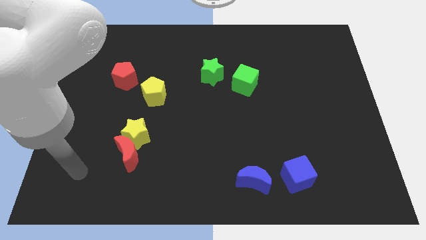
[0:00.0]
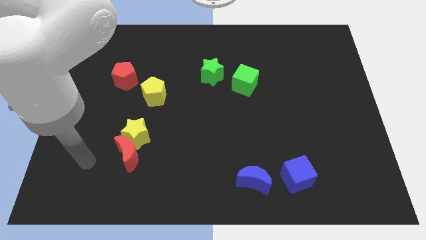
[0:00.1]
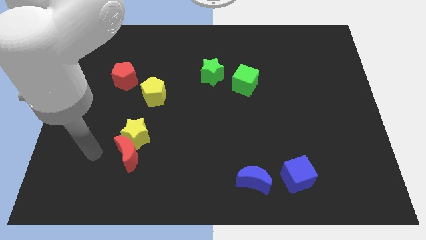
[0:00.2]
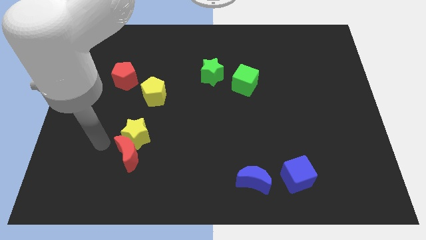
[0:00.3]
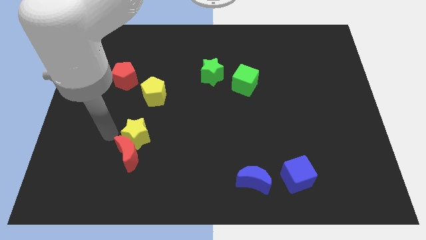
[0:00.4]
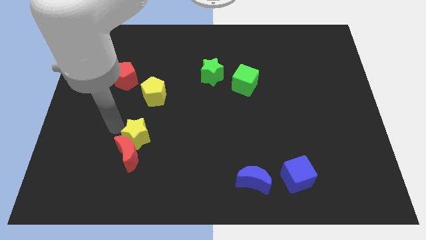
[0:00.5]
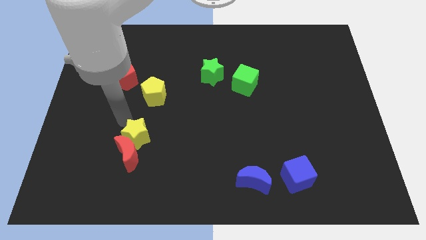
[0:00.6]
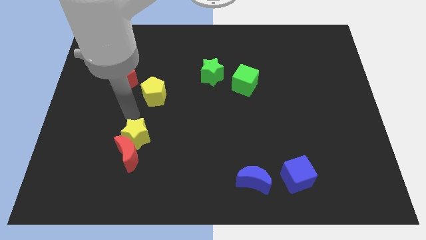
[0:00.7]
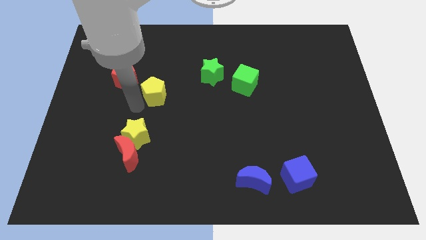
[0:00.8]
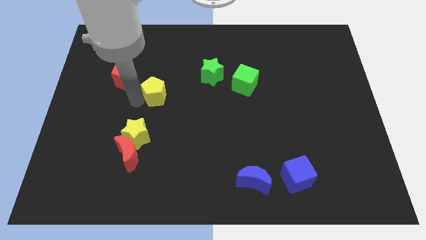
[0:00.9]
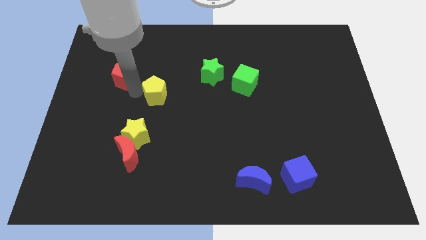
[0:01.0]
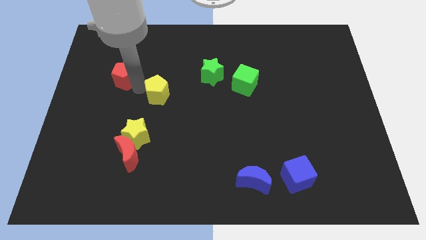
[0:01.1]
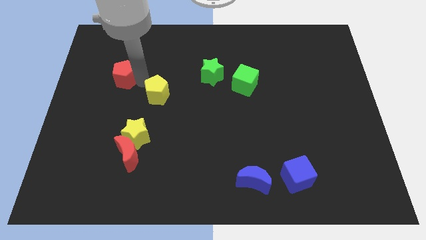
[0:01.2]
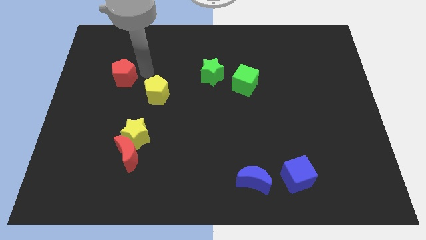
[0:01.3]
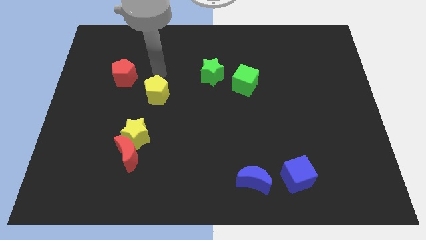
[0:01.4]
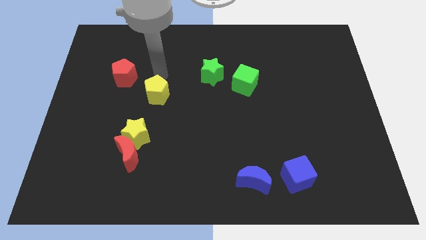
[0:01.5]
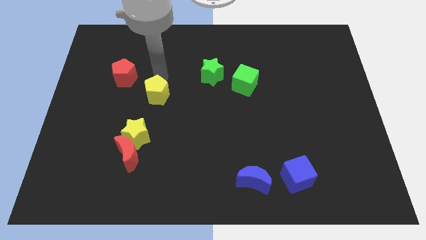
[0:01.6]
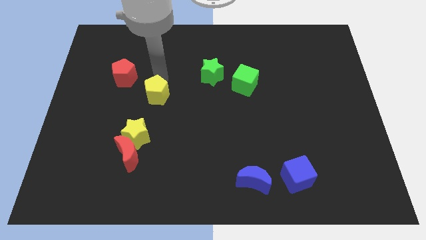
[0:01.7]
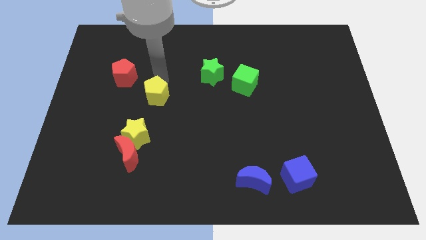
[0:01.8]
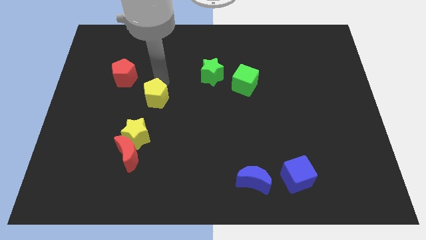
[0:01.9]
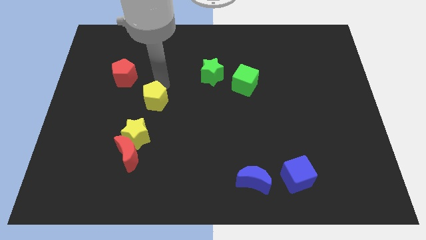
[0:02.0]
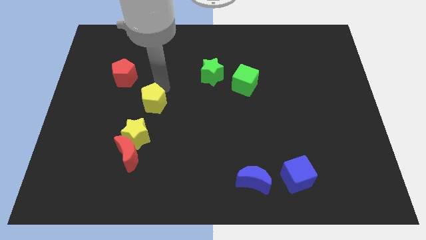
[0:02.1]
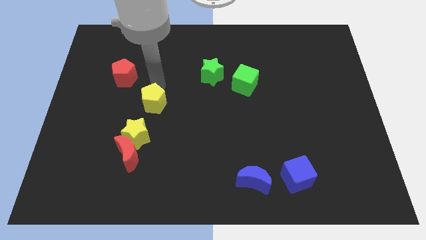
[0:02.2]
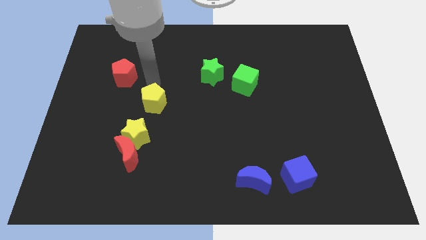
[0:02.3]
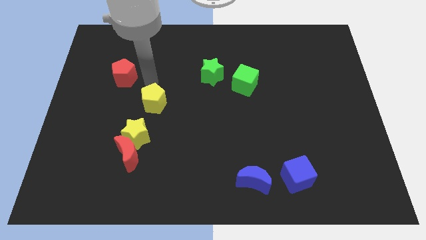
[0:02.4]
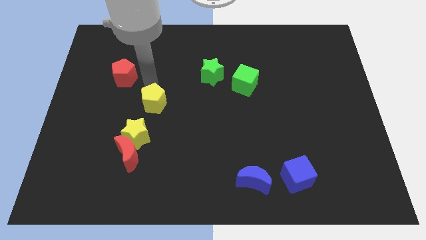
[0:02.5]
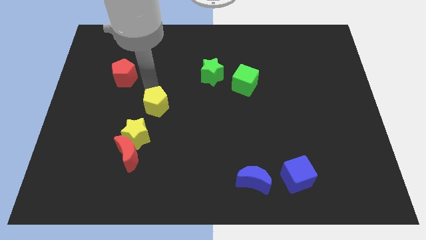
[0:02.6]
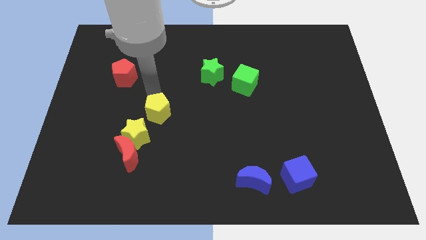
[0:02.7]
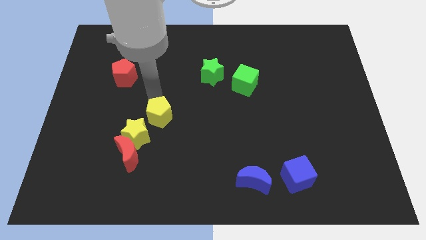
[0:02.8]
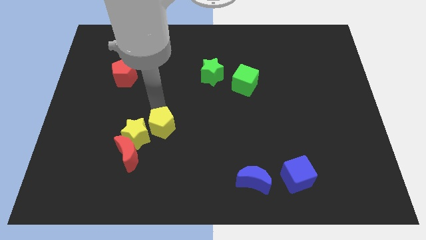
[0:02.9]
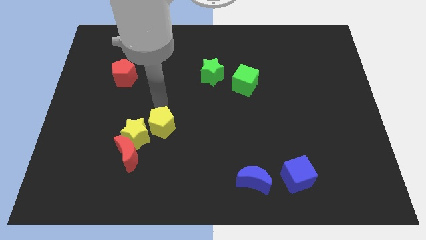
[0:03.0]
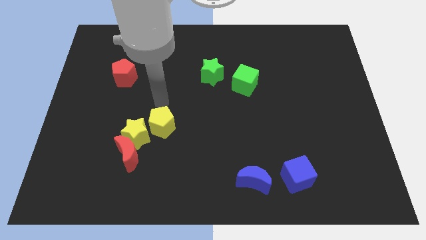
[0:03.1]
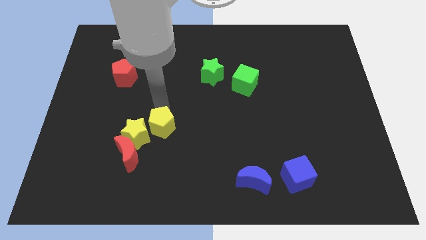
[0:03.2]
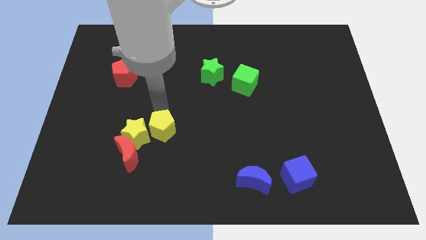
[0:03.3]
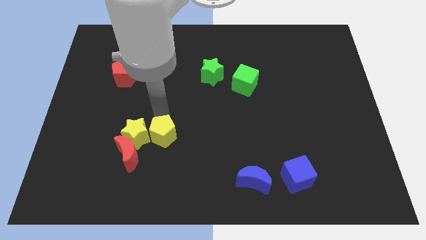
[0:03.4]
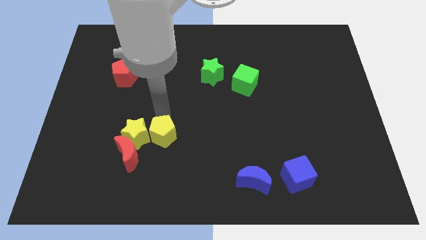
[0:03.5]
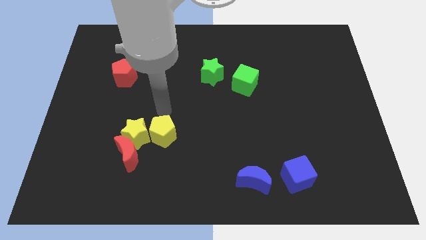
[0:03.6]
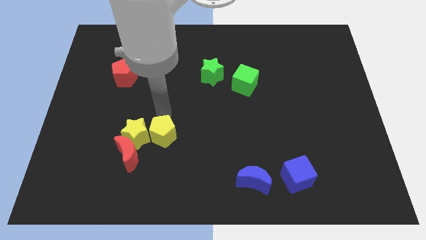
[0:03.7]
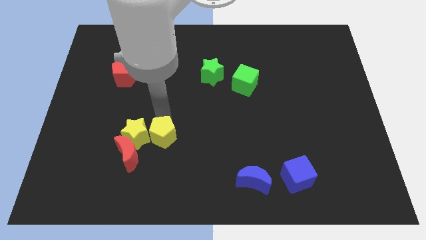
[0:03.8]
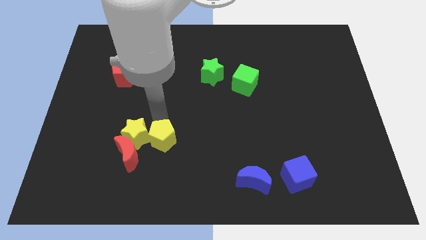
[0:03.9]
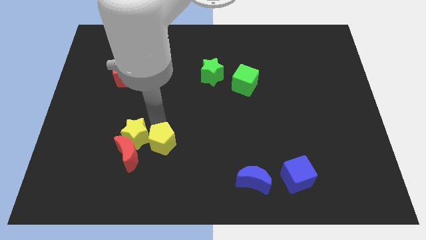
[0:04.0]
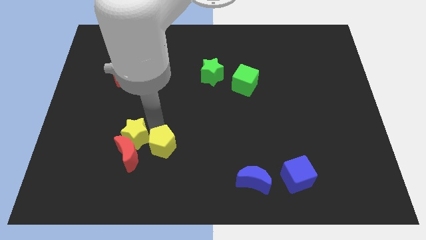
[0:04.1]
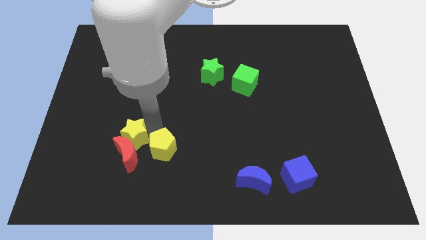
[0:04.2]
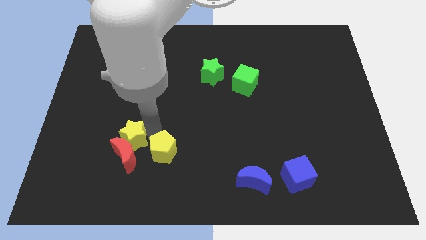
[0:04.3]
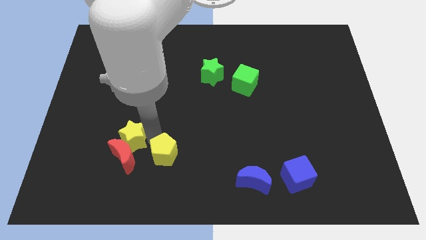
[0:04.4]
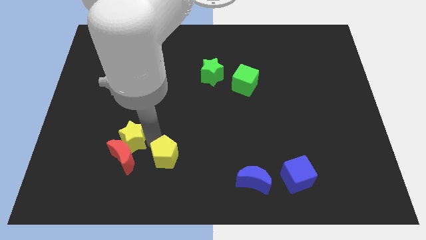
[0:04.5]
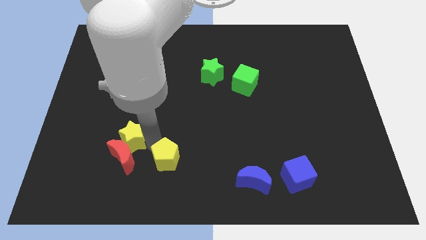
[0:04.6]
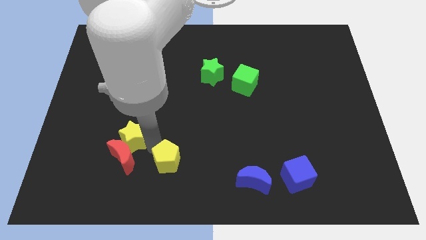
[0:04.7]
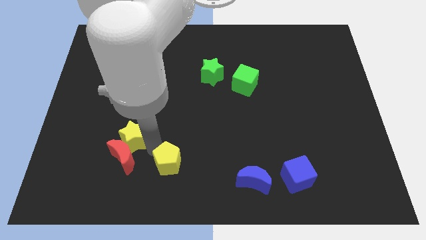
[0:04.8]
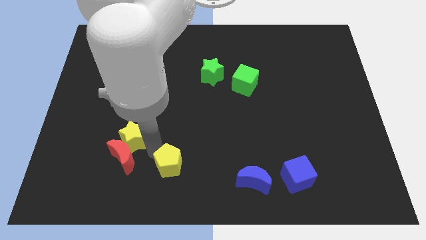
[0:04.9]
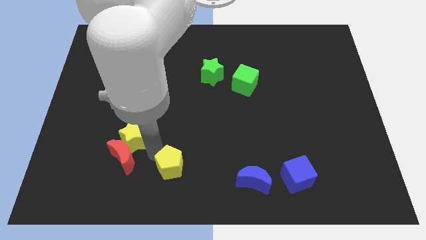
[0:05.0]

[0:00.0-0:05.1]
move the yellow pentagon to the bottom

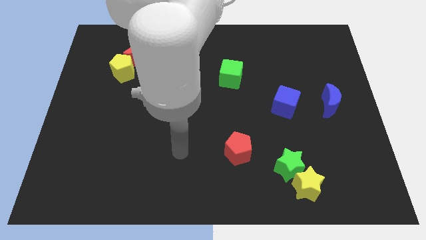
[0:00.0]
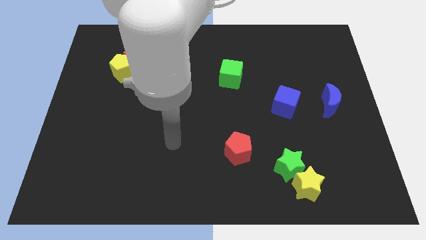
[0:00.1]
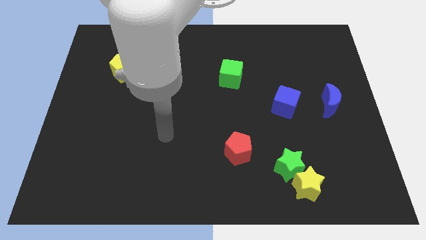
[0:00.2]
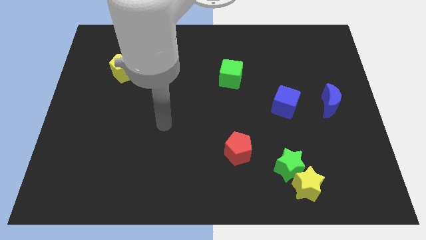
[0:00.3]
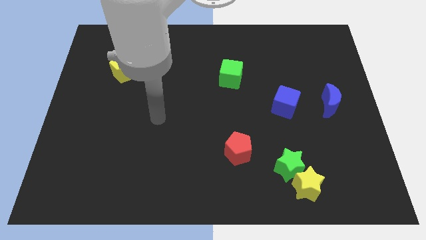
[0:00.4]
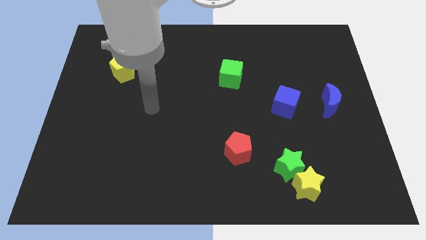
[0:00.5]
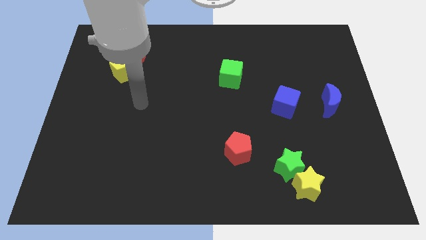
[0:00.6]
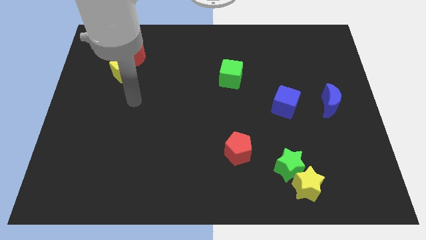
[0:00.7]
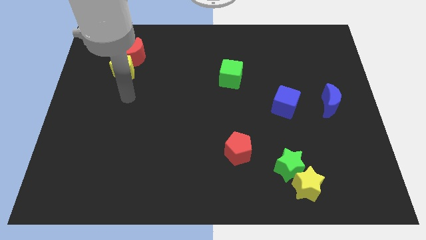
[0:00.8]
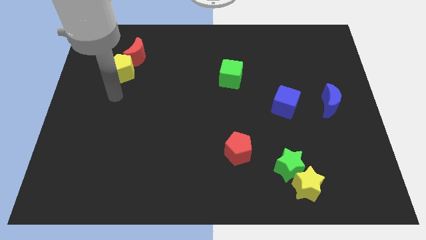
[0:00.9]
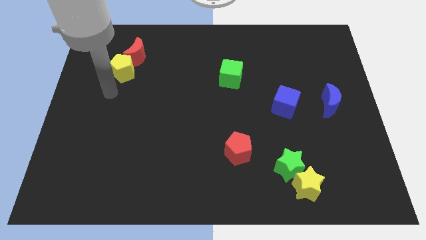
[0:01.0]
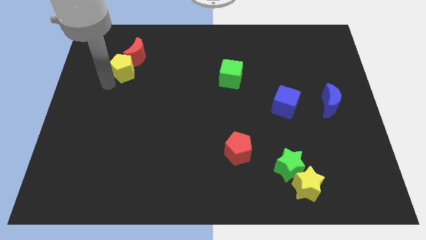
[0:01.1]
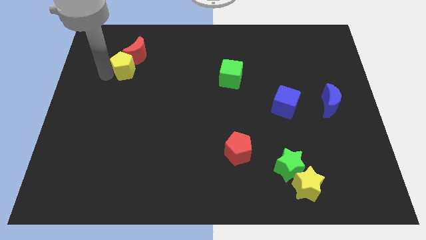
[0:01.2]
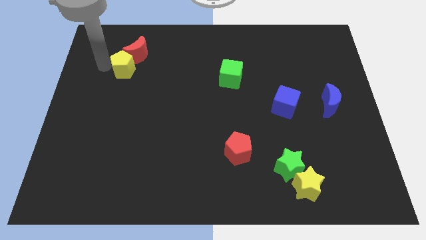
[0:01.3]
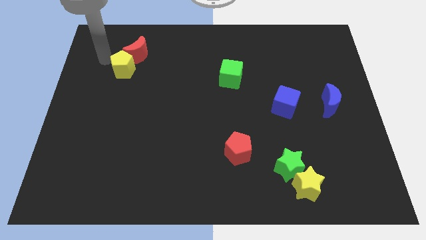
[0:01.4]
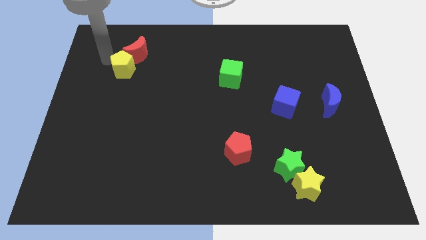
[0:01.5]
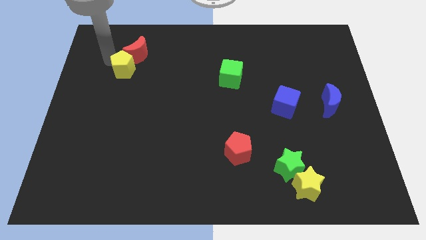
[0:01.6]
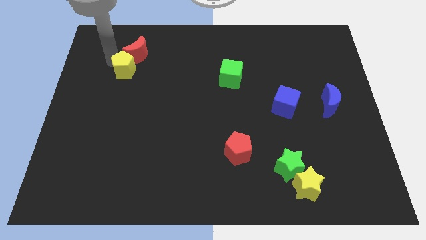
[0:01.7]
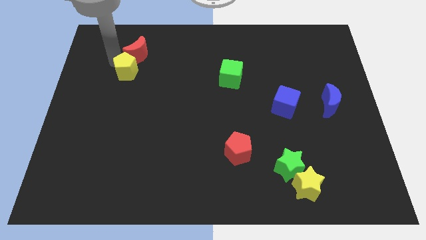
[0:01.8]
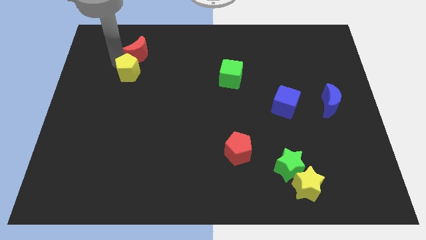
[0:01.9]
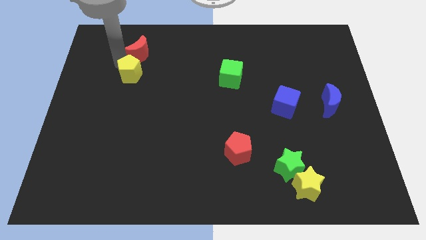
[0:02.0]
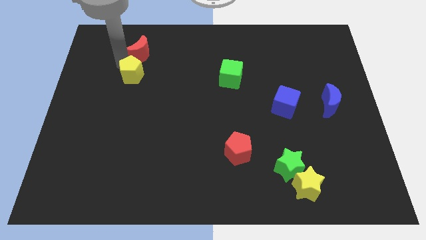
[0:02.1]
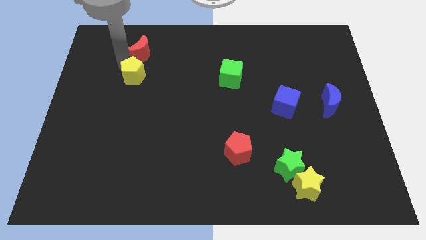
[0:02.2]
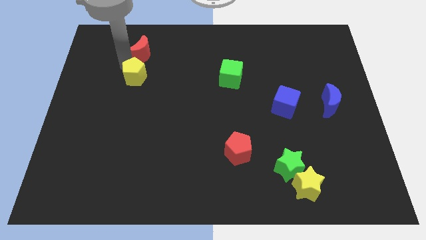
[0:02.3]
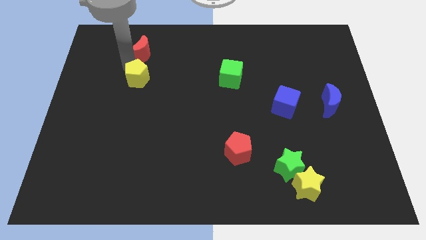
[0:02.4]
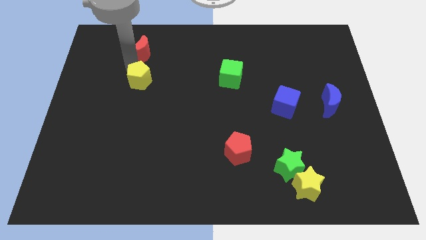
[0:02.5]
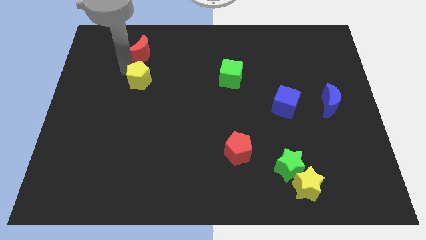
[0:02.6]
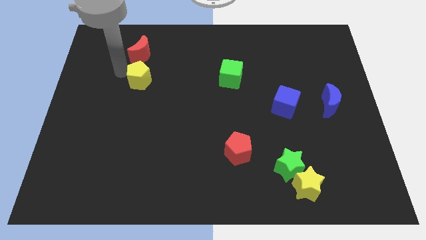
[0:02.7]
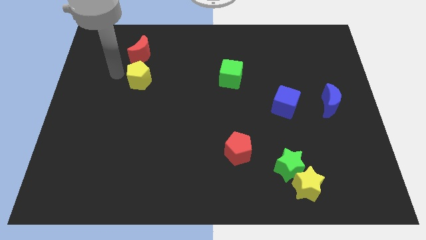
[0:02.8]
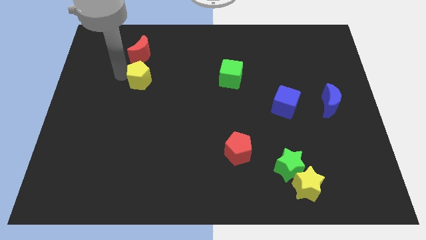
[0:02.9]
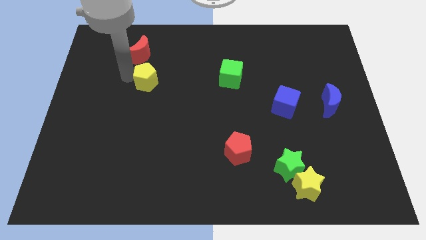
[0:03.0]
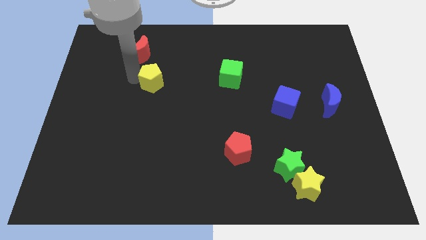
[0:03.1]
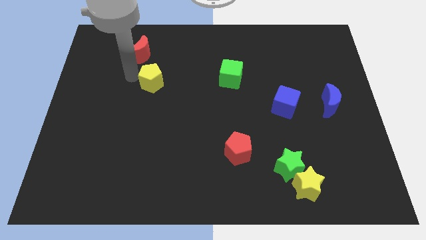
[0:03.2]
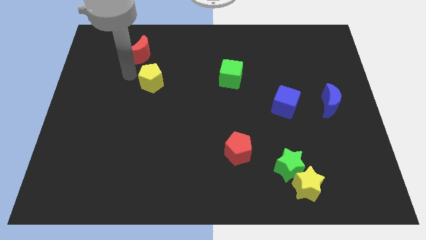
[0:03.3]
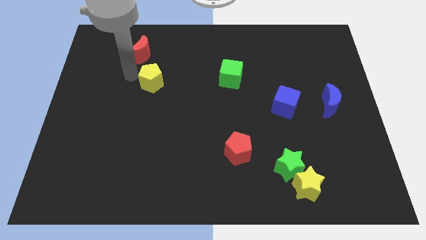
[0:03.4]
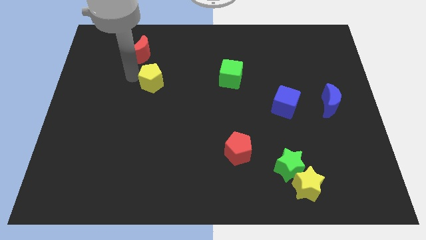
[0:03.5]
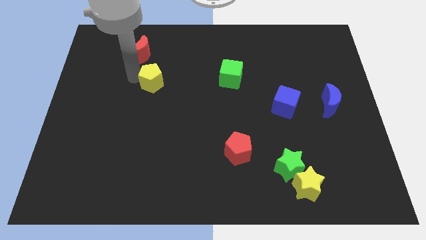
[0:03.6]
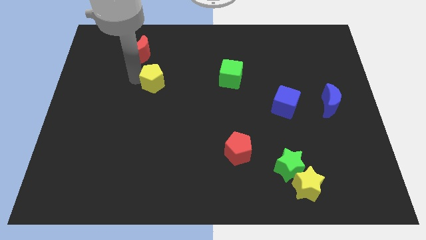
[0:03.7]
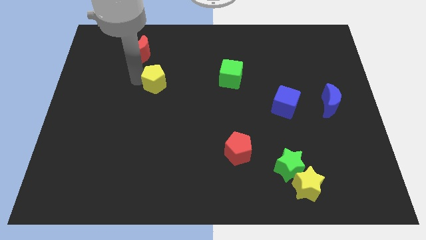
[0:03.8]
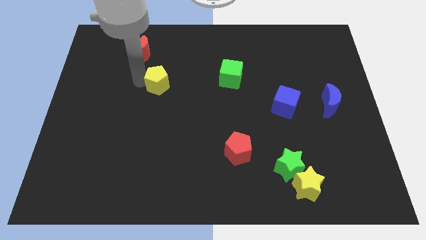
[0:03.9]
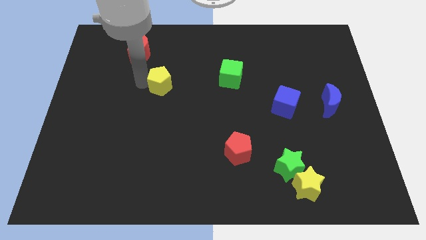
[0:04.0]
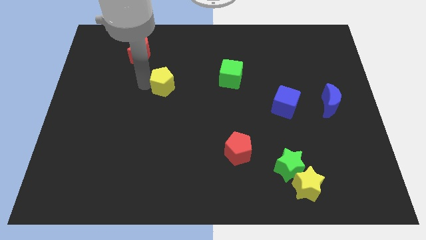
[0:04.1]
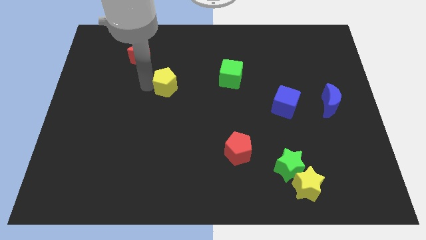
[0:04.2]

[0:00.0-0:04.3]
put the yellow pentagon to the center of the board
